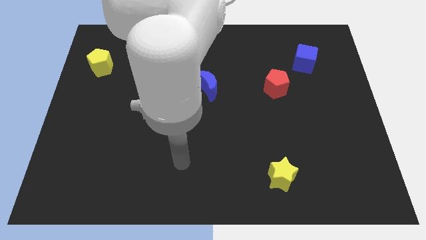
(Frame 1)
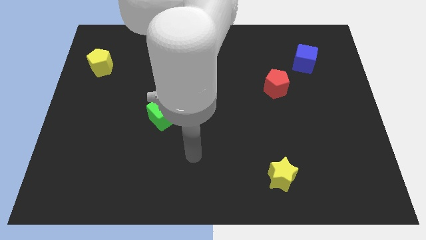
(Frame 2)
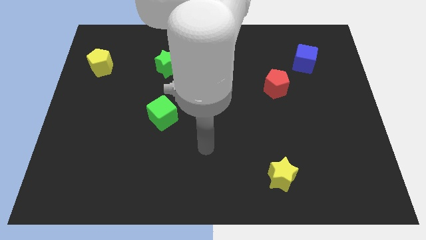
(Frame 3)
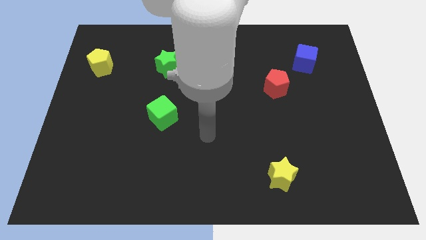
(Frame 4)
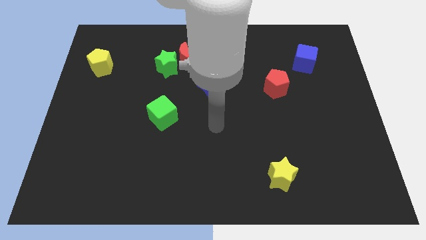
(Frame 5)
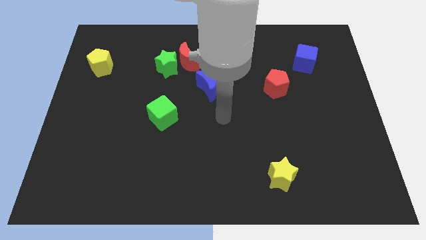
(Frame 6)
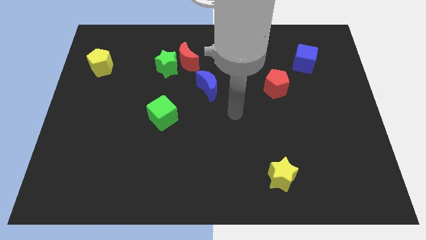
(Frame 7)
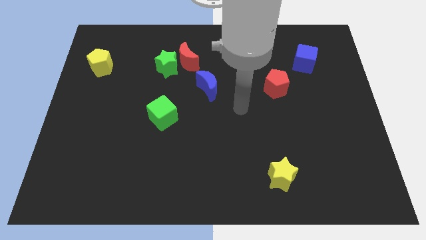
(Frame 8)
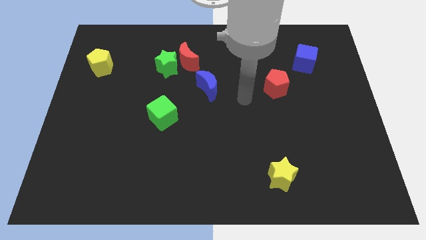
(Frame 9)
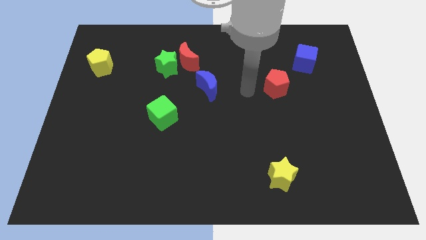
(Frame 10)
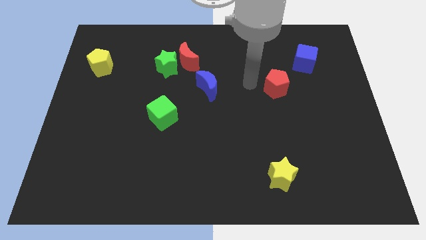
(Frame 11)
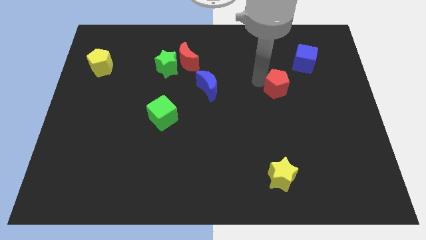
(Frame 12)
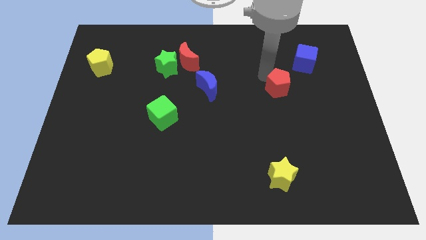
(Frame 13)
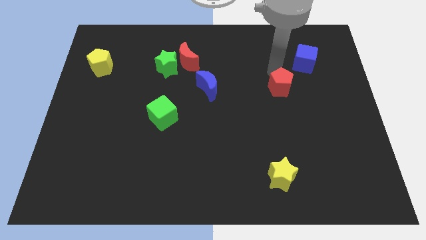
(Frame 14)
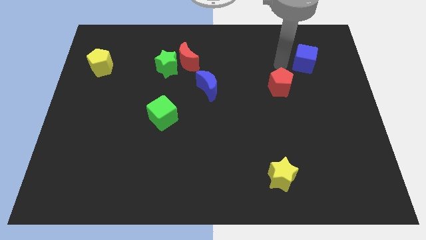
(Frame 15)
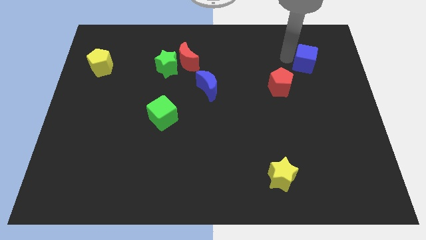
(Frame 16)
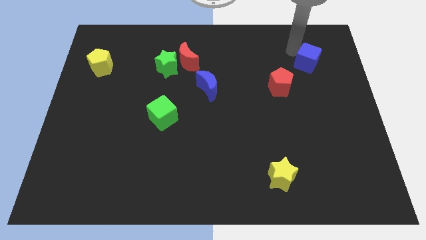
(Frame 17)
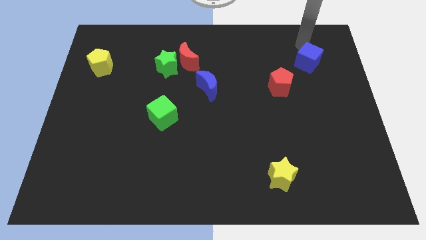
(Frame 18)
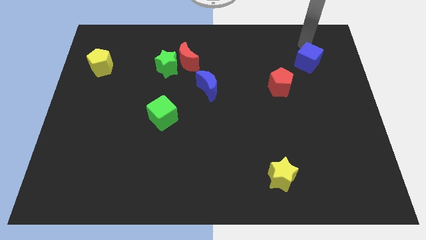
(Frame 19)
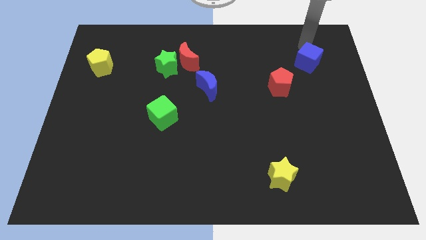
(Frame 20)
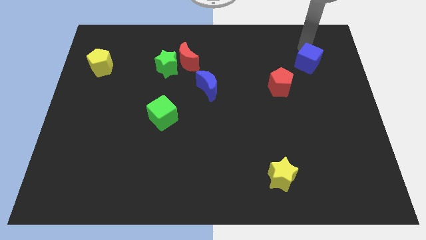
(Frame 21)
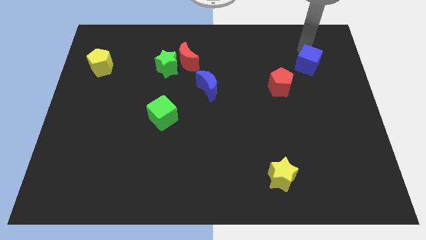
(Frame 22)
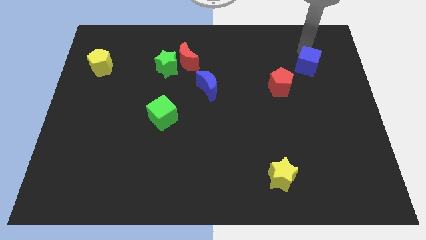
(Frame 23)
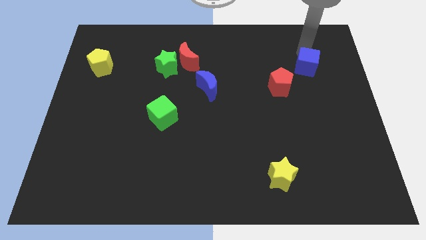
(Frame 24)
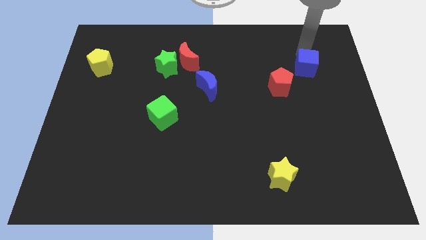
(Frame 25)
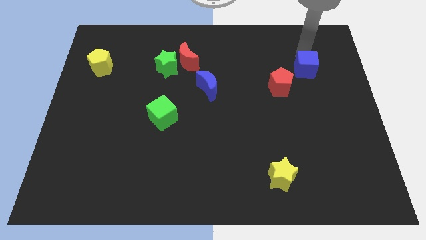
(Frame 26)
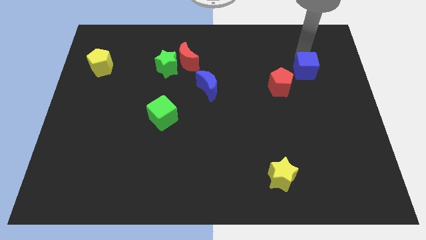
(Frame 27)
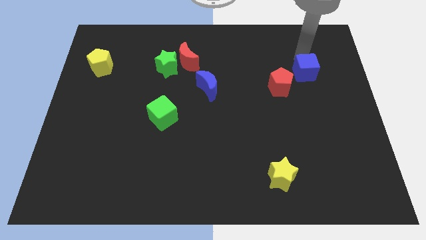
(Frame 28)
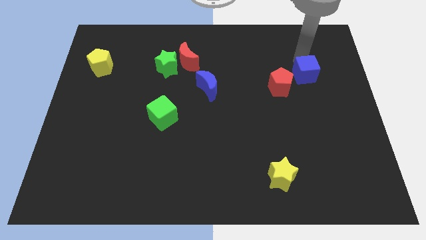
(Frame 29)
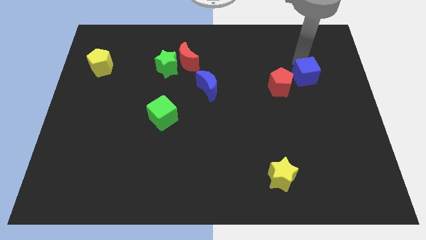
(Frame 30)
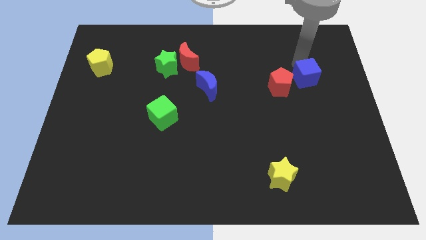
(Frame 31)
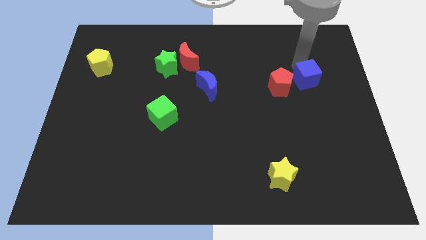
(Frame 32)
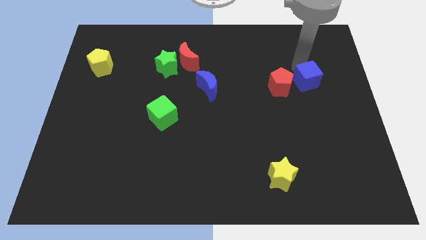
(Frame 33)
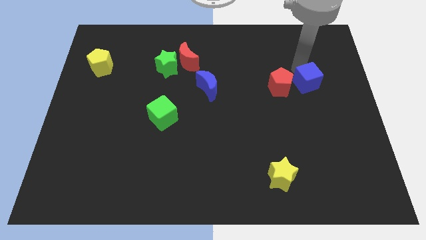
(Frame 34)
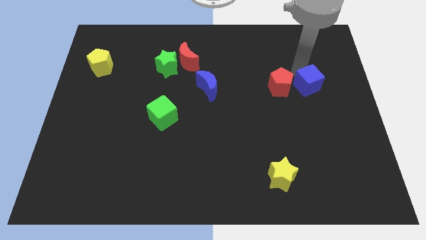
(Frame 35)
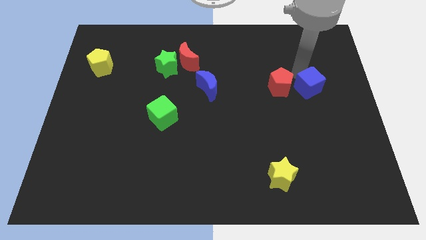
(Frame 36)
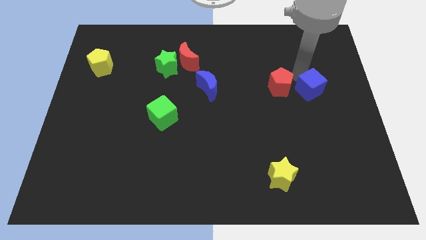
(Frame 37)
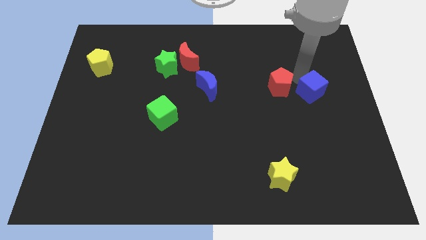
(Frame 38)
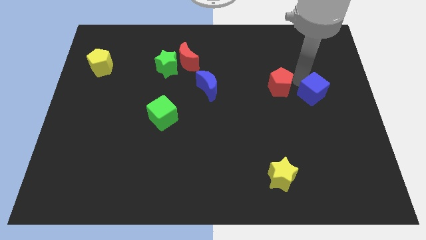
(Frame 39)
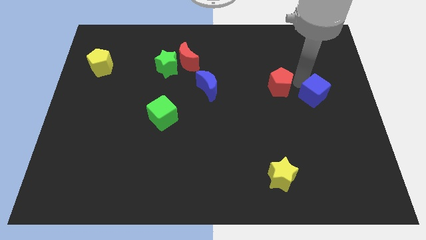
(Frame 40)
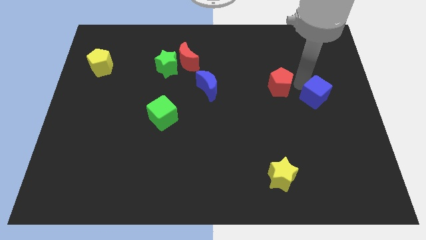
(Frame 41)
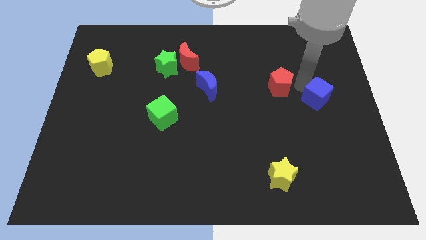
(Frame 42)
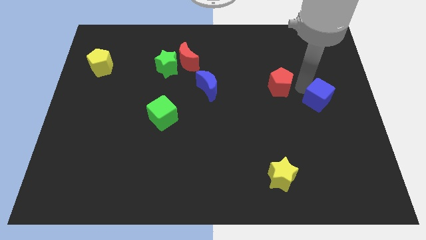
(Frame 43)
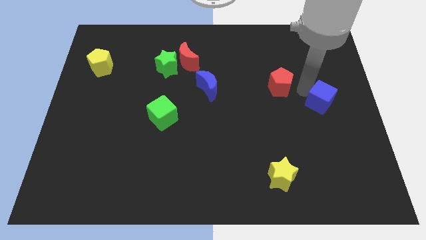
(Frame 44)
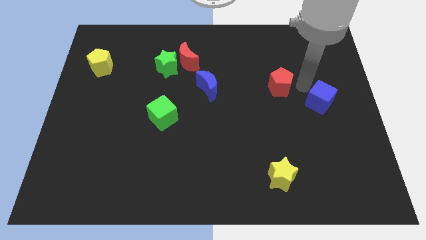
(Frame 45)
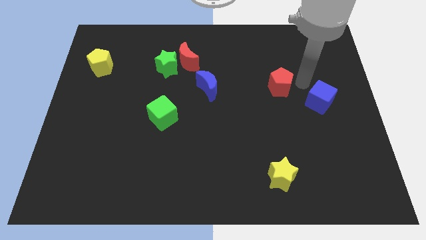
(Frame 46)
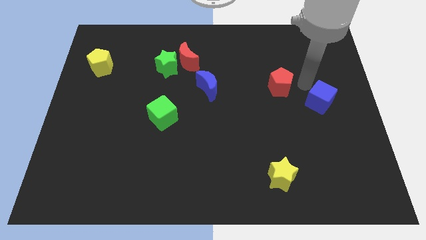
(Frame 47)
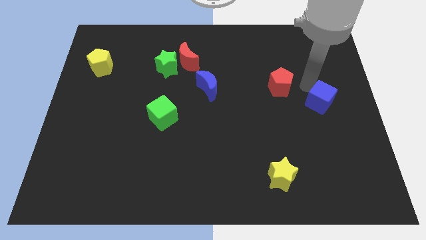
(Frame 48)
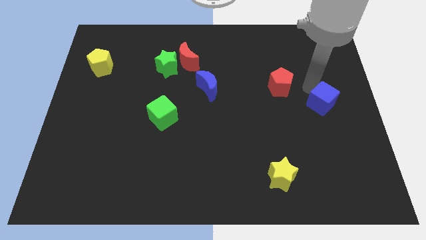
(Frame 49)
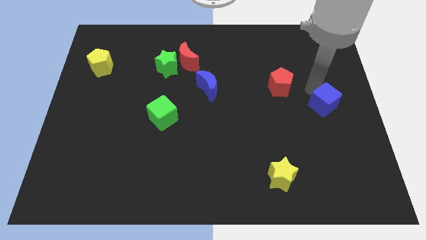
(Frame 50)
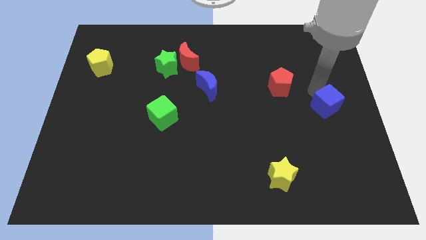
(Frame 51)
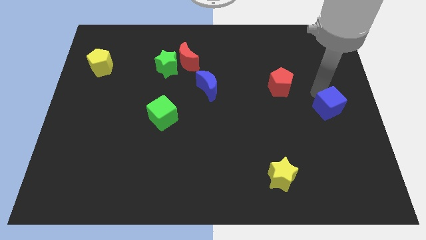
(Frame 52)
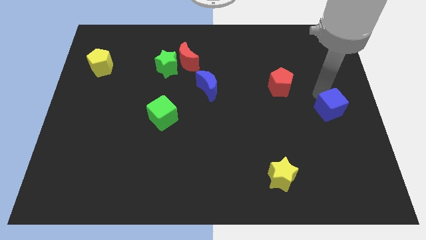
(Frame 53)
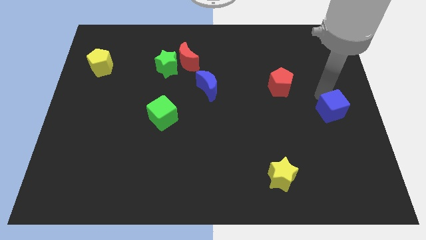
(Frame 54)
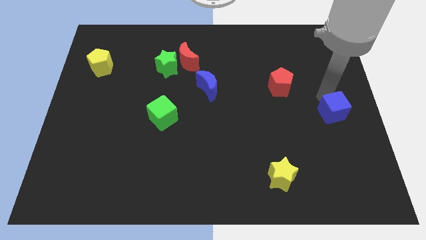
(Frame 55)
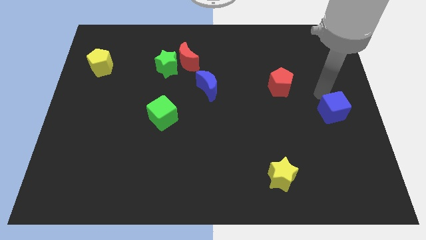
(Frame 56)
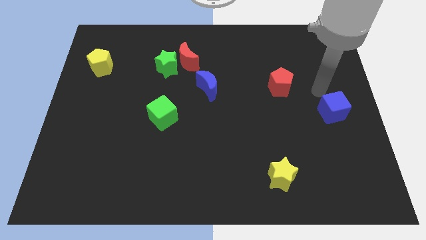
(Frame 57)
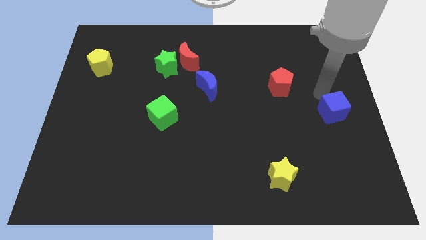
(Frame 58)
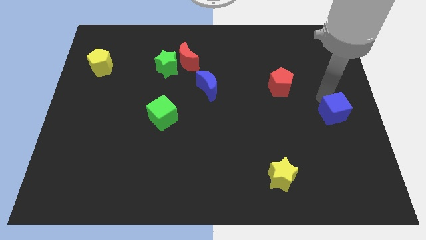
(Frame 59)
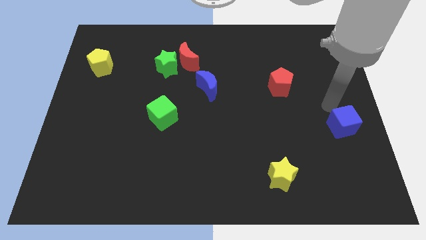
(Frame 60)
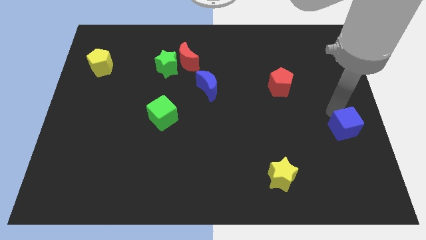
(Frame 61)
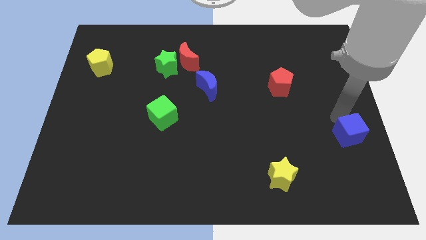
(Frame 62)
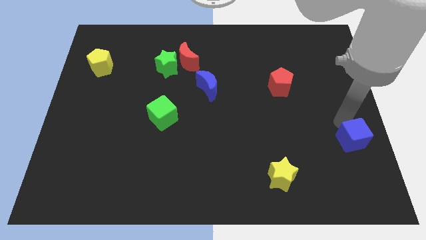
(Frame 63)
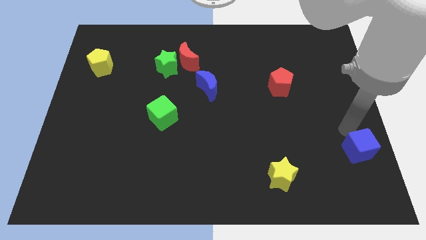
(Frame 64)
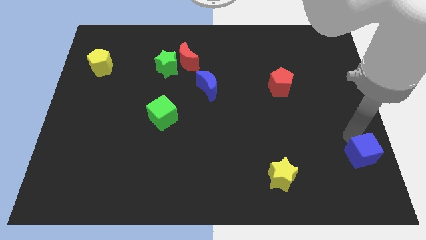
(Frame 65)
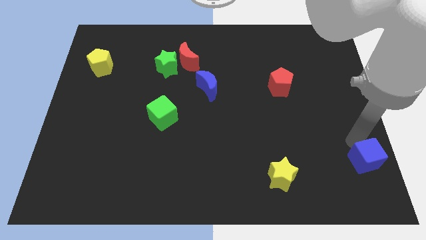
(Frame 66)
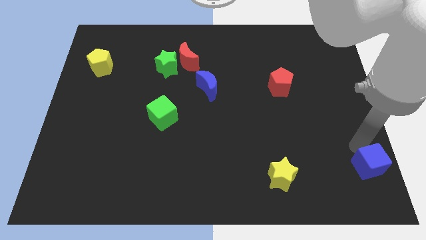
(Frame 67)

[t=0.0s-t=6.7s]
move the blue cube to the lower right corner

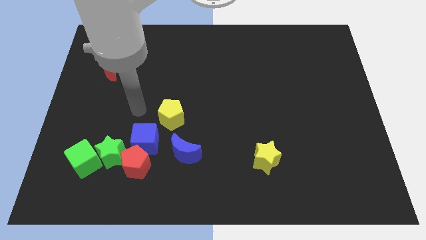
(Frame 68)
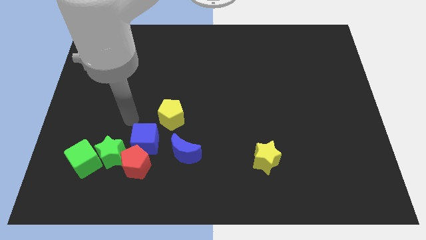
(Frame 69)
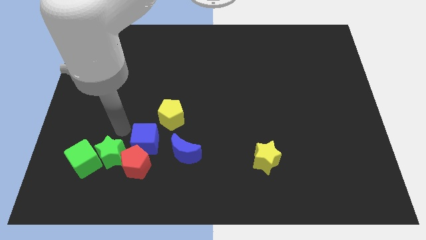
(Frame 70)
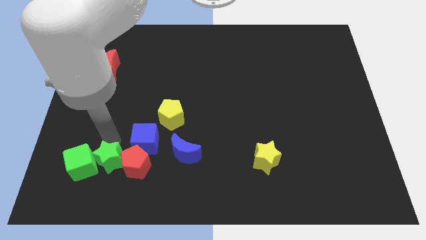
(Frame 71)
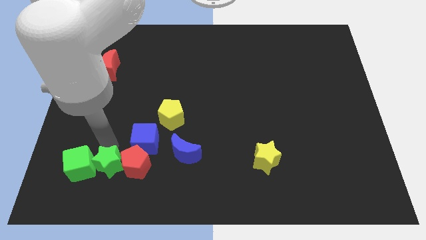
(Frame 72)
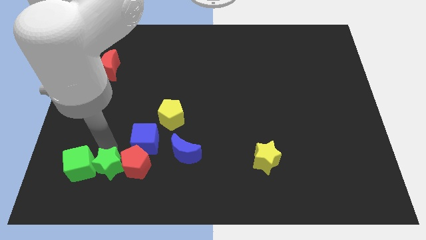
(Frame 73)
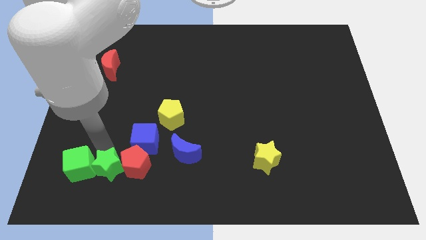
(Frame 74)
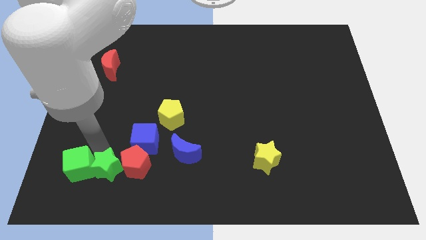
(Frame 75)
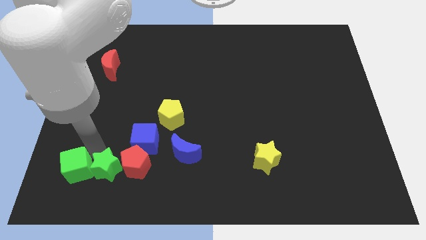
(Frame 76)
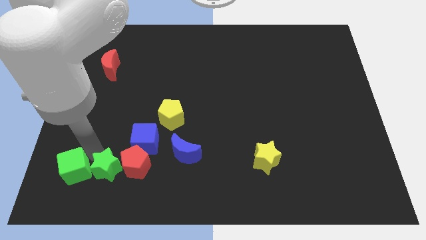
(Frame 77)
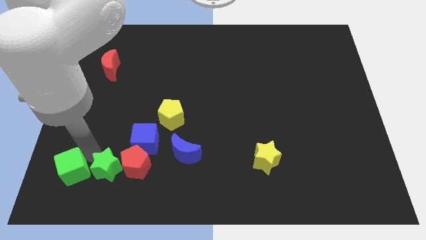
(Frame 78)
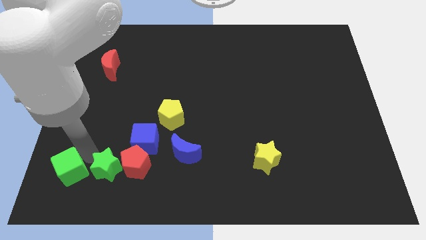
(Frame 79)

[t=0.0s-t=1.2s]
put the green cube to the bottom left

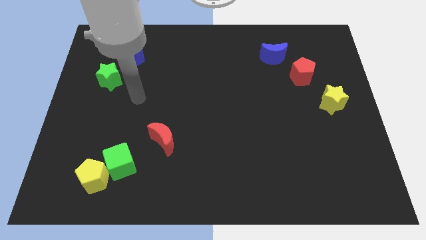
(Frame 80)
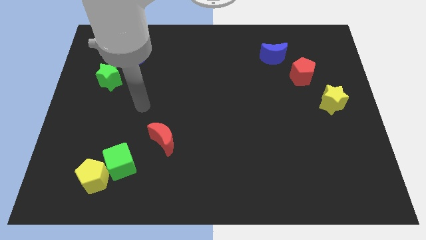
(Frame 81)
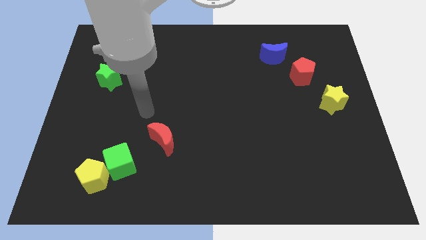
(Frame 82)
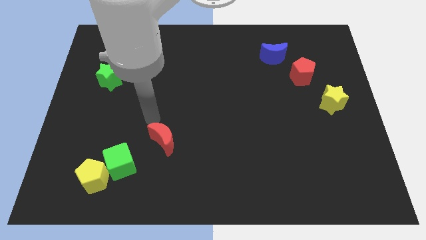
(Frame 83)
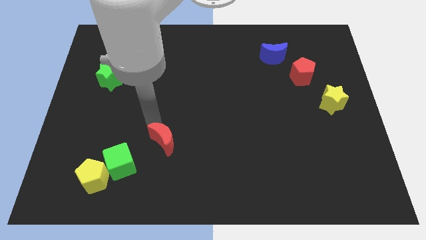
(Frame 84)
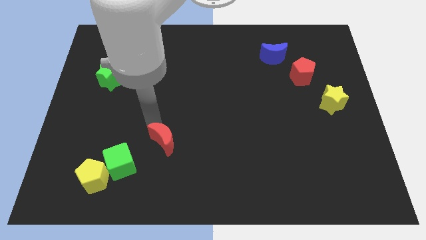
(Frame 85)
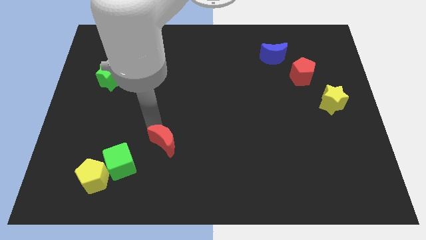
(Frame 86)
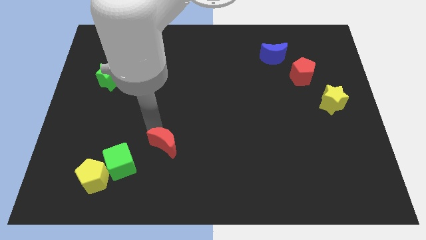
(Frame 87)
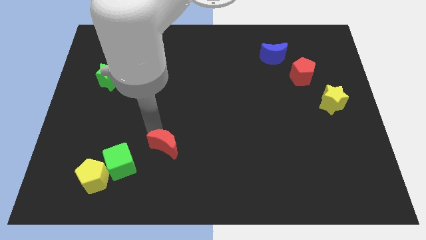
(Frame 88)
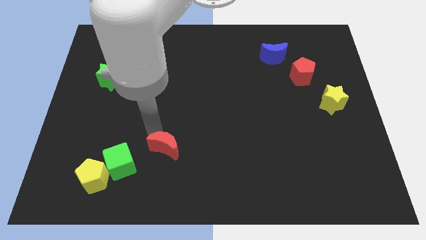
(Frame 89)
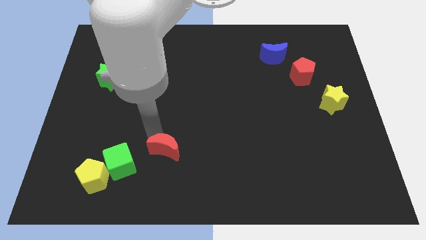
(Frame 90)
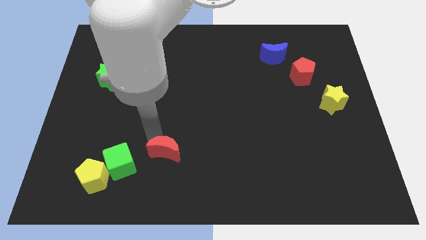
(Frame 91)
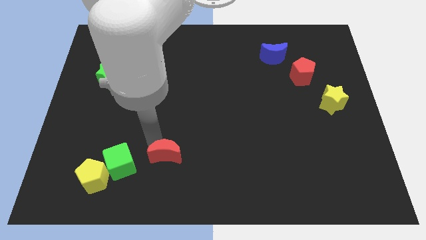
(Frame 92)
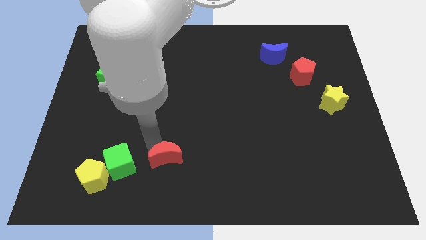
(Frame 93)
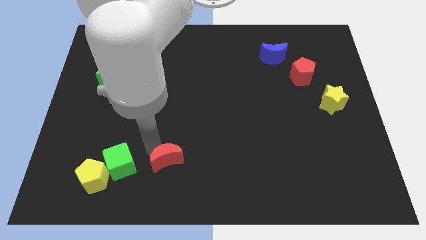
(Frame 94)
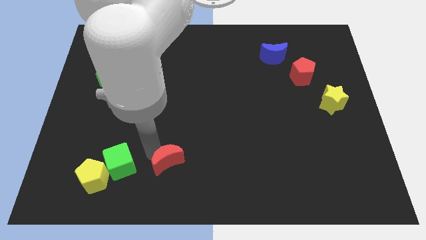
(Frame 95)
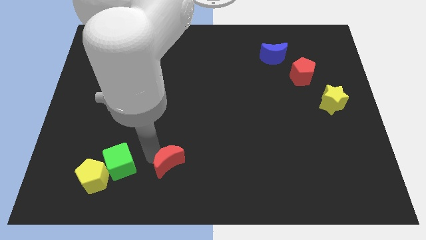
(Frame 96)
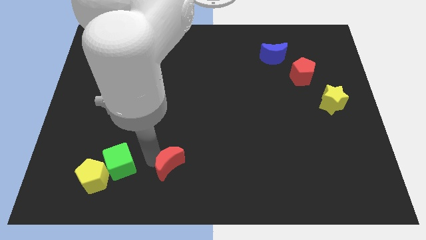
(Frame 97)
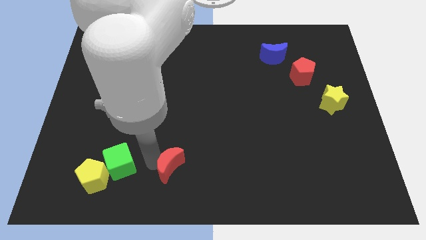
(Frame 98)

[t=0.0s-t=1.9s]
put the red moon to the bottom
